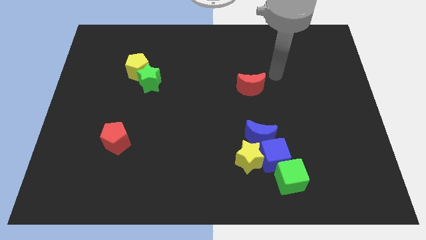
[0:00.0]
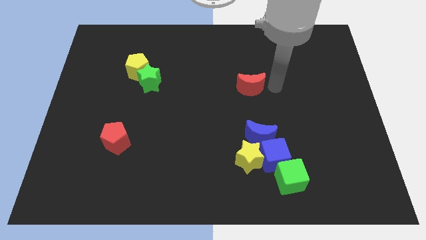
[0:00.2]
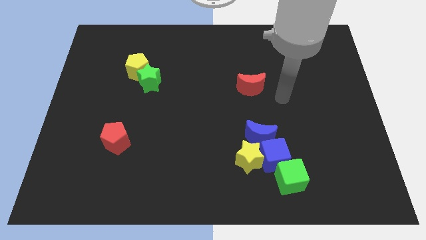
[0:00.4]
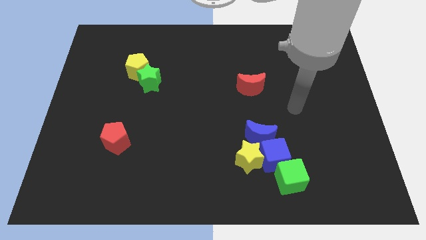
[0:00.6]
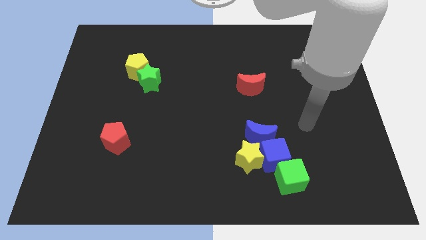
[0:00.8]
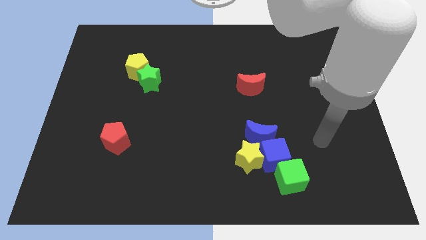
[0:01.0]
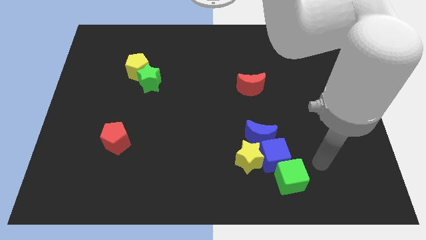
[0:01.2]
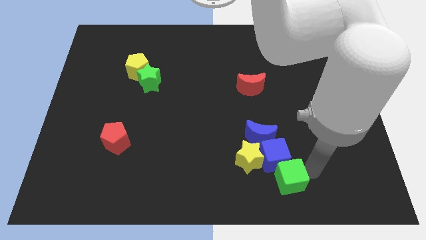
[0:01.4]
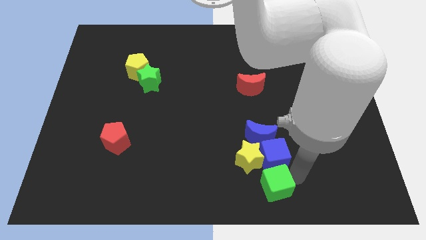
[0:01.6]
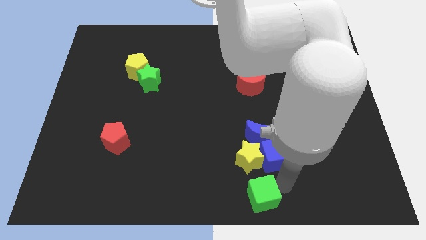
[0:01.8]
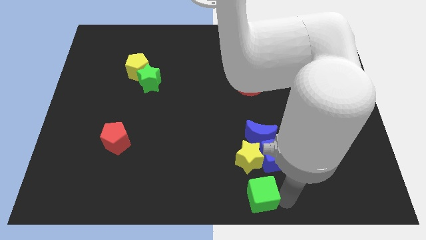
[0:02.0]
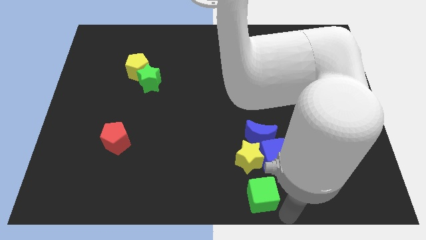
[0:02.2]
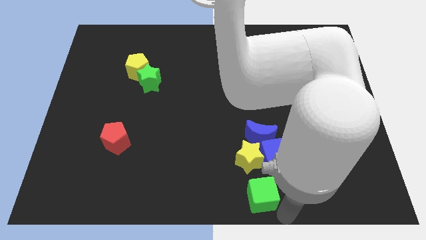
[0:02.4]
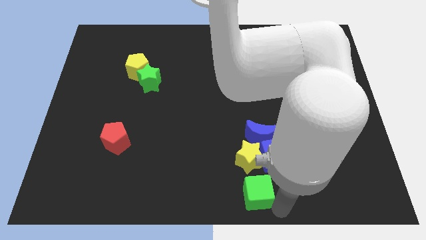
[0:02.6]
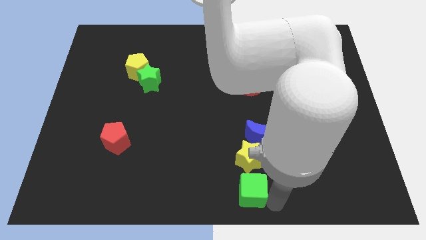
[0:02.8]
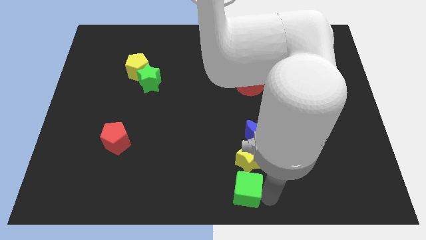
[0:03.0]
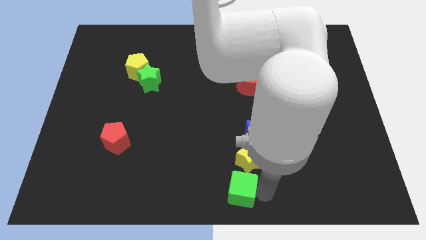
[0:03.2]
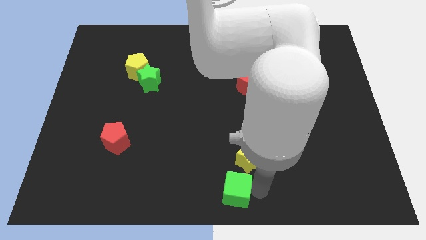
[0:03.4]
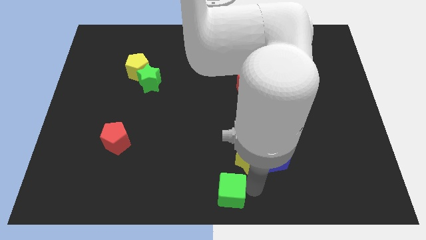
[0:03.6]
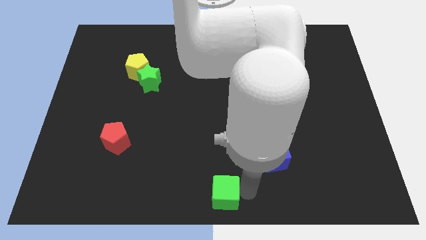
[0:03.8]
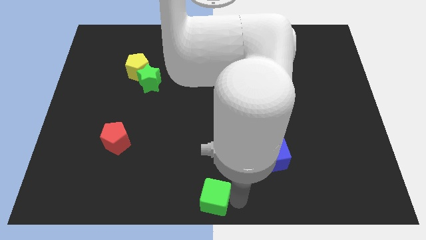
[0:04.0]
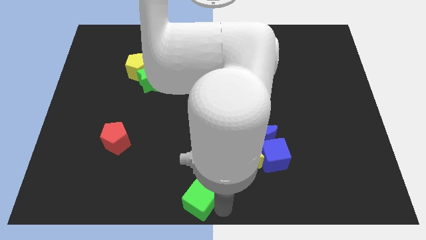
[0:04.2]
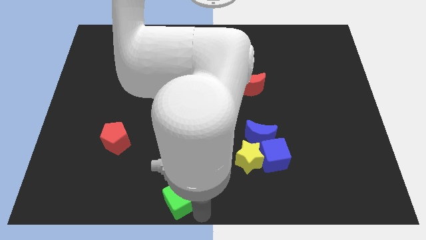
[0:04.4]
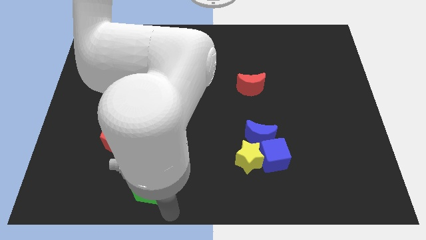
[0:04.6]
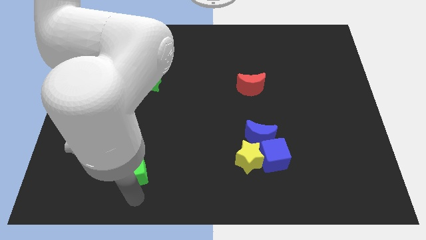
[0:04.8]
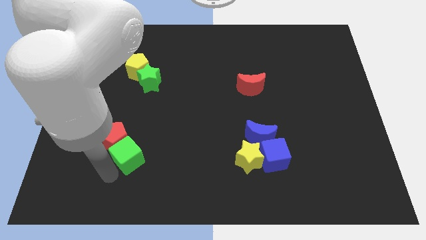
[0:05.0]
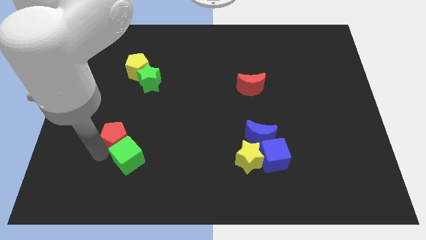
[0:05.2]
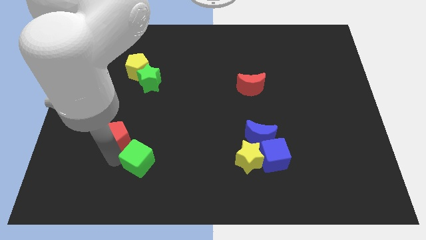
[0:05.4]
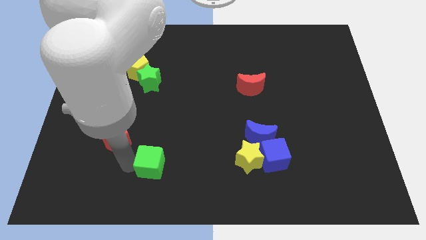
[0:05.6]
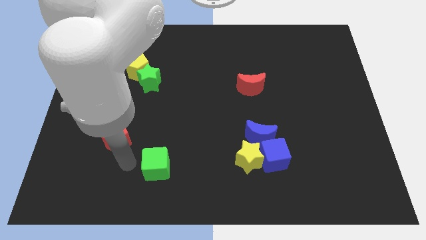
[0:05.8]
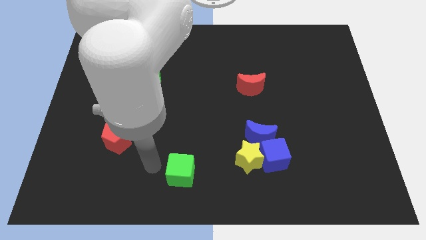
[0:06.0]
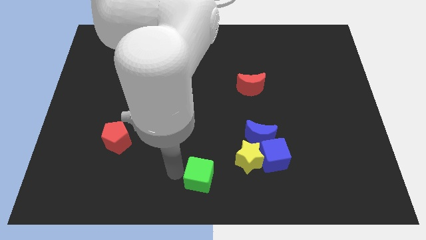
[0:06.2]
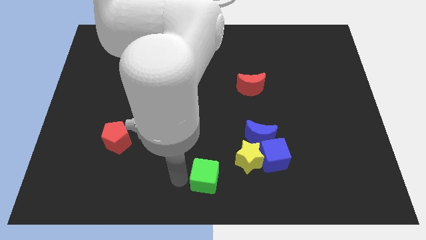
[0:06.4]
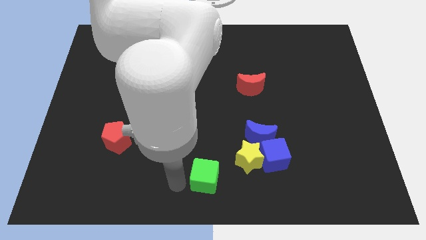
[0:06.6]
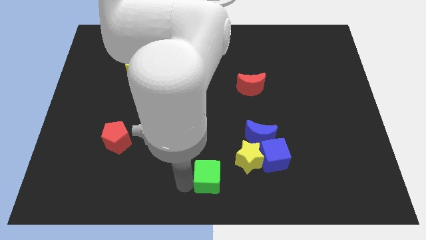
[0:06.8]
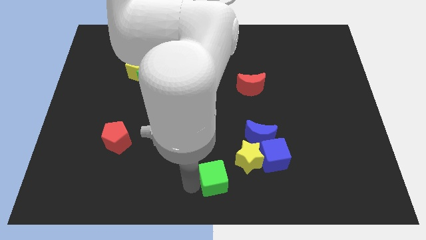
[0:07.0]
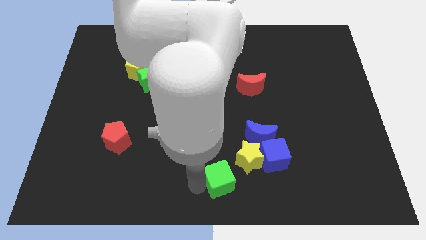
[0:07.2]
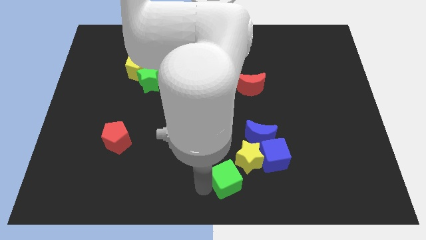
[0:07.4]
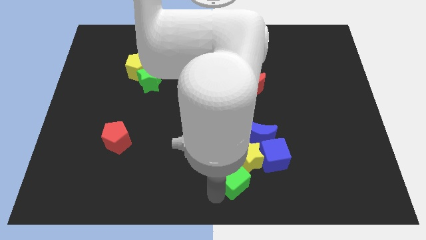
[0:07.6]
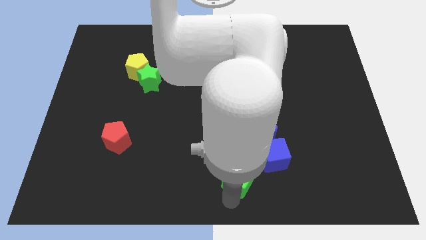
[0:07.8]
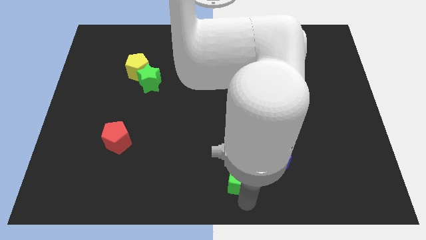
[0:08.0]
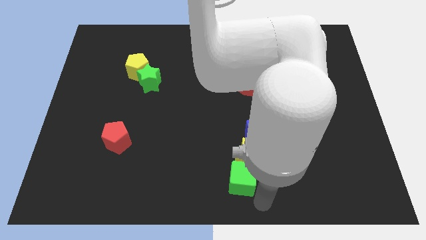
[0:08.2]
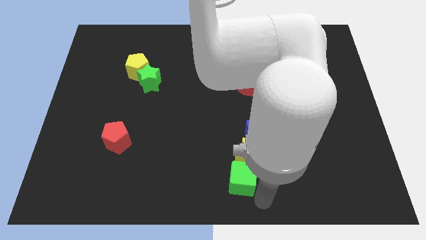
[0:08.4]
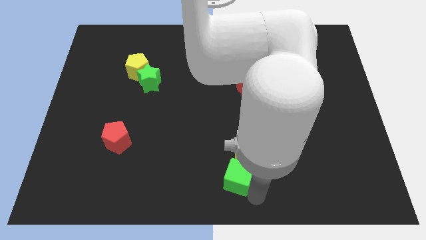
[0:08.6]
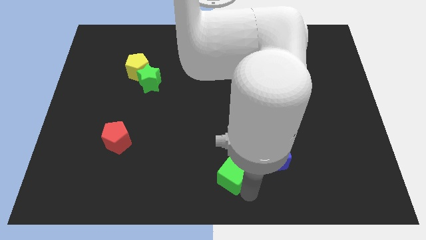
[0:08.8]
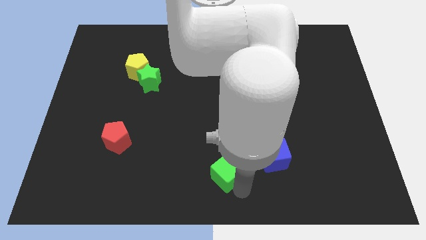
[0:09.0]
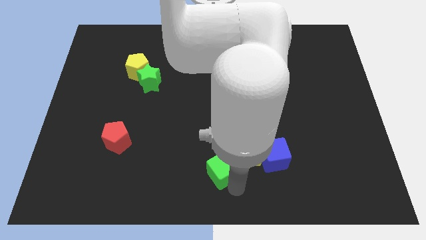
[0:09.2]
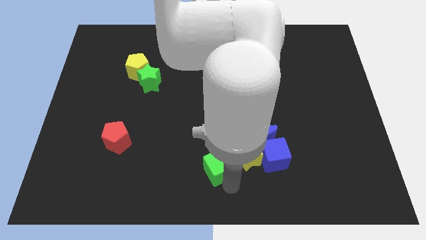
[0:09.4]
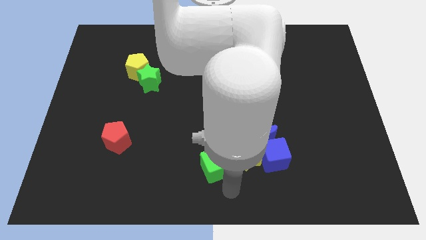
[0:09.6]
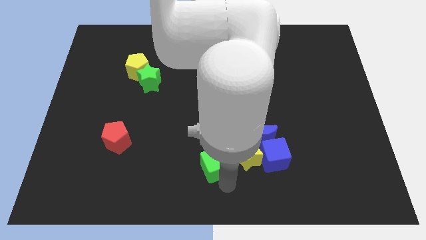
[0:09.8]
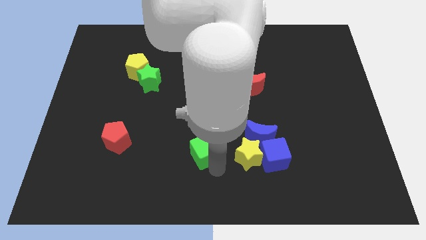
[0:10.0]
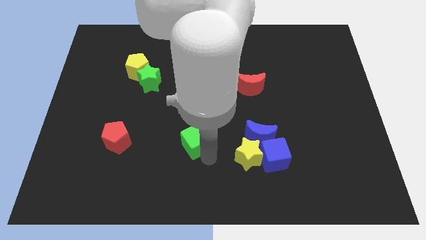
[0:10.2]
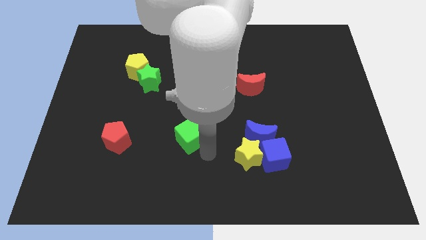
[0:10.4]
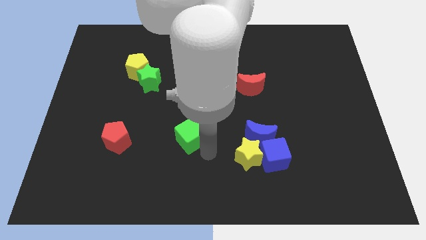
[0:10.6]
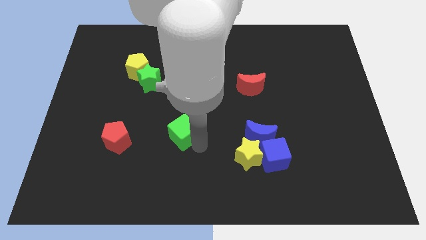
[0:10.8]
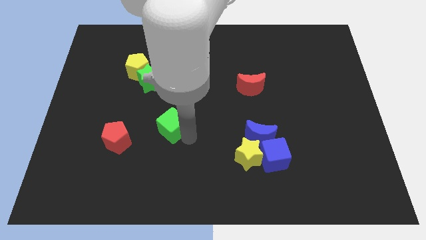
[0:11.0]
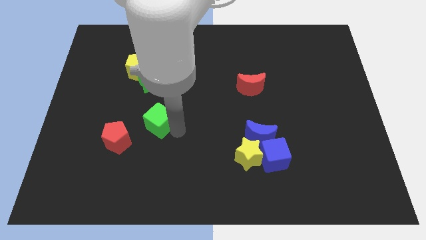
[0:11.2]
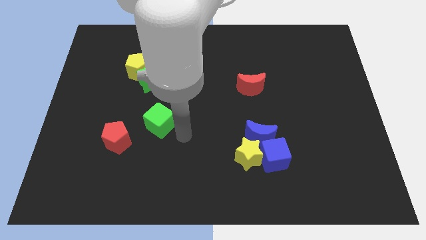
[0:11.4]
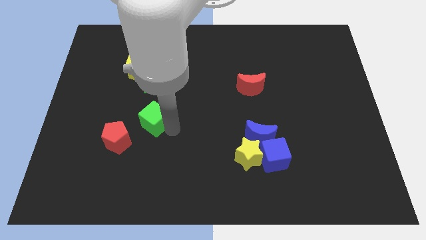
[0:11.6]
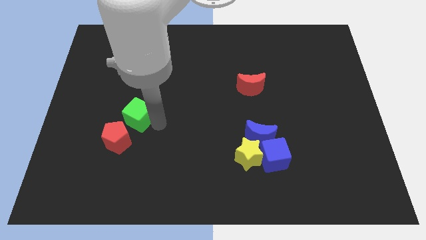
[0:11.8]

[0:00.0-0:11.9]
slide the green cube above the red pentagon

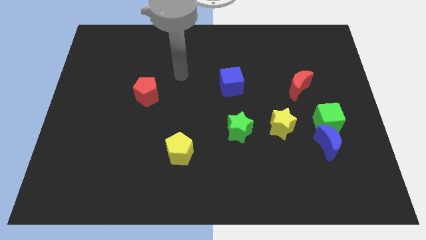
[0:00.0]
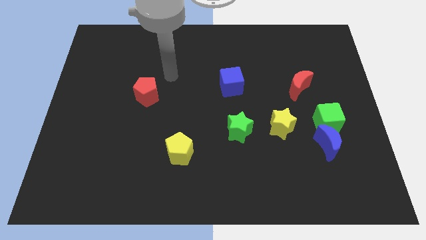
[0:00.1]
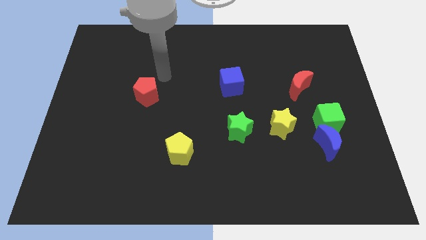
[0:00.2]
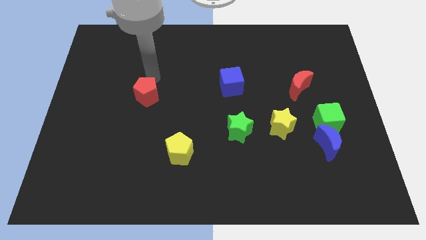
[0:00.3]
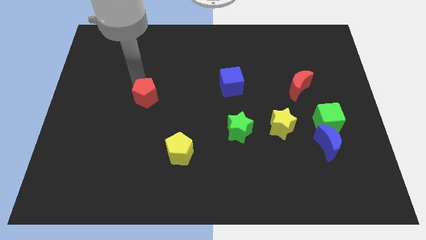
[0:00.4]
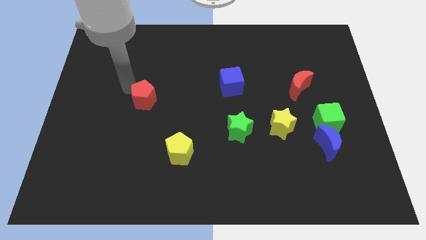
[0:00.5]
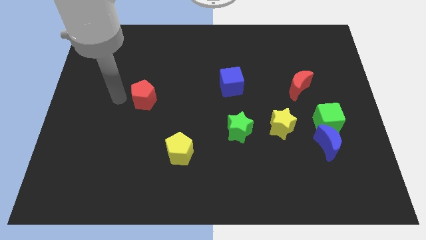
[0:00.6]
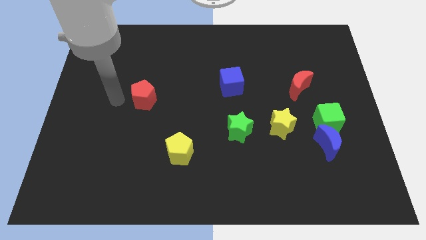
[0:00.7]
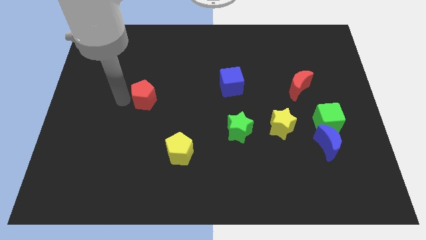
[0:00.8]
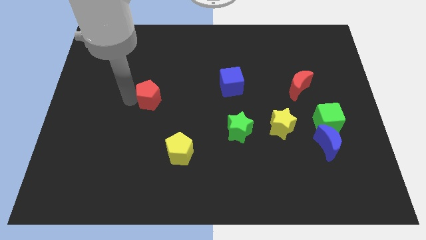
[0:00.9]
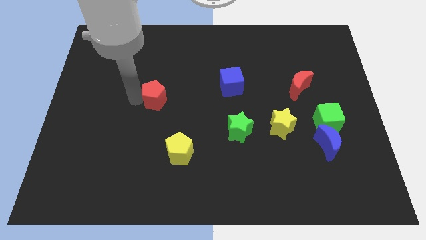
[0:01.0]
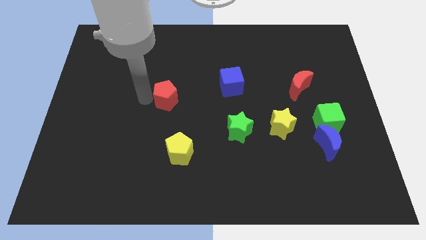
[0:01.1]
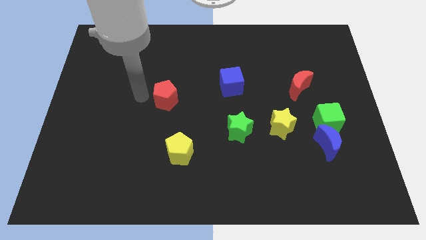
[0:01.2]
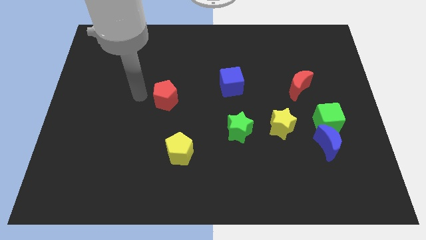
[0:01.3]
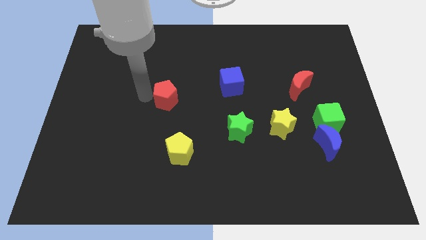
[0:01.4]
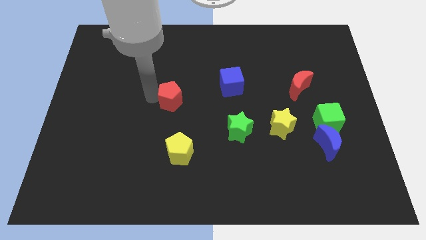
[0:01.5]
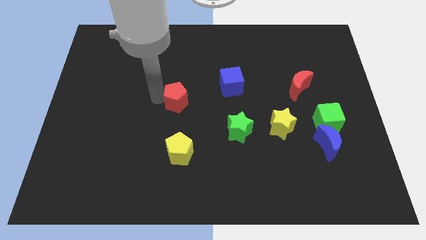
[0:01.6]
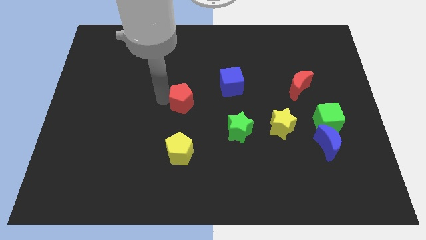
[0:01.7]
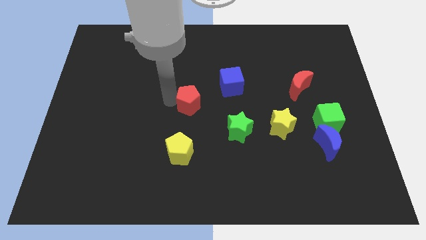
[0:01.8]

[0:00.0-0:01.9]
push the red pentagon to the bottom left side of the blue cube
